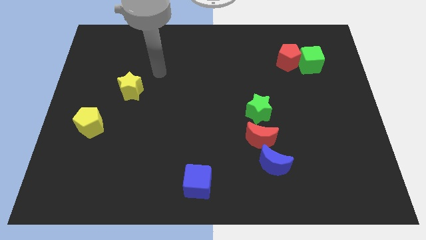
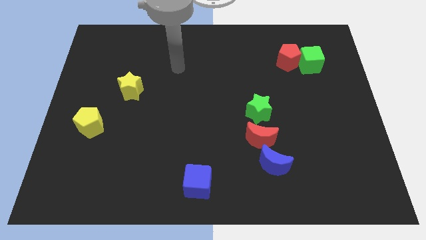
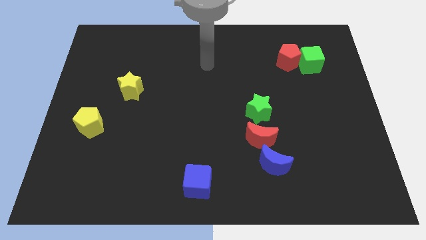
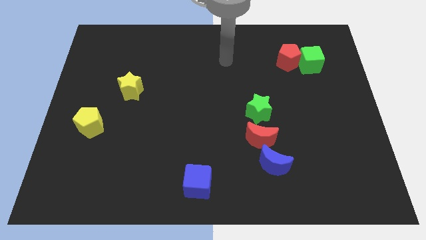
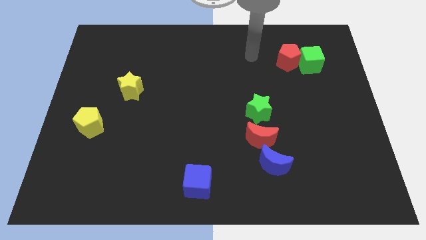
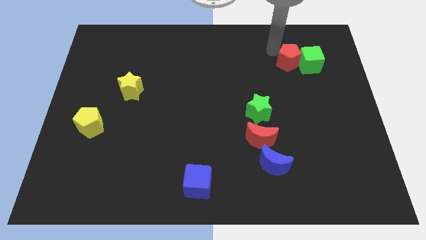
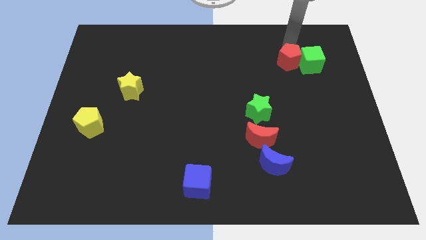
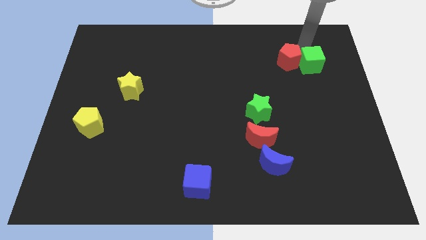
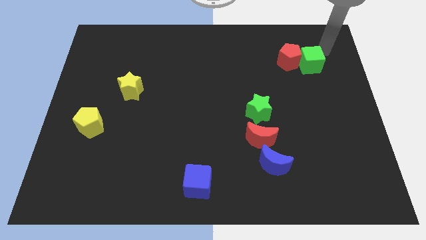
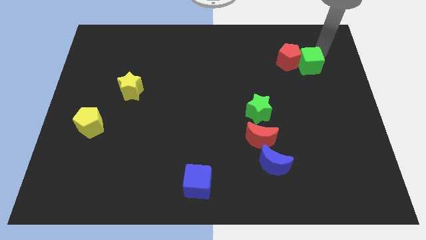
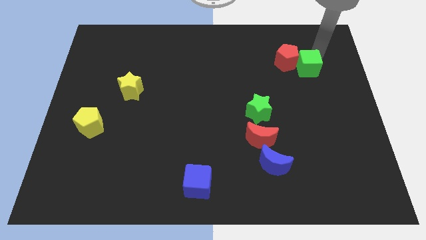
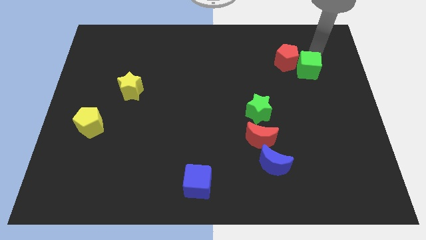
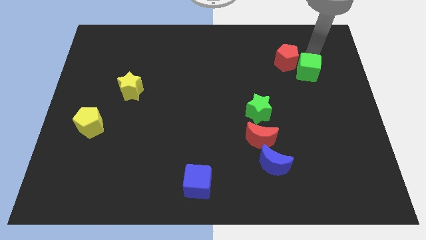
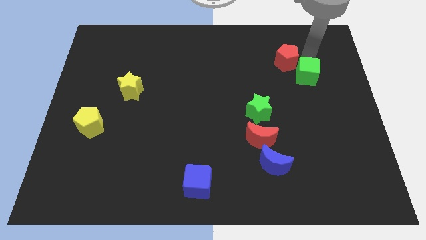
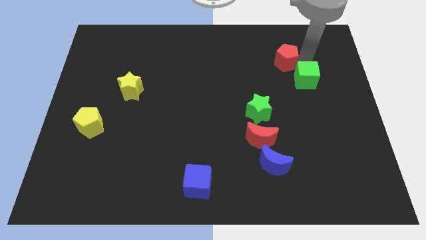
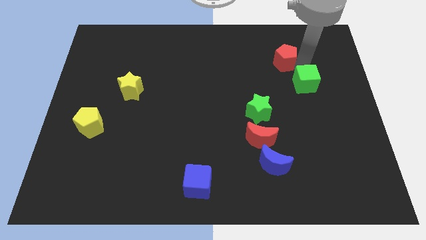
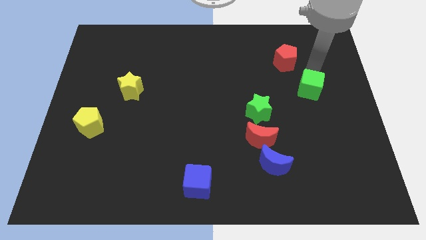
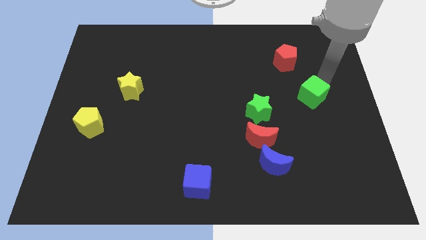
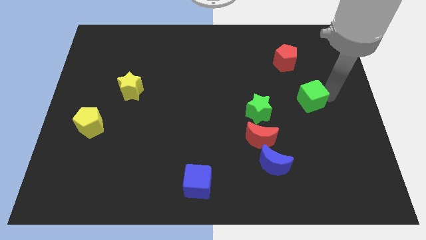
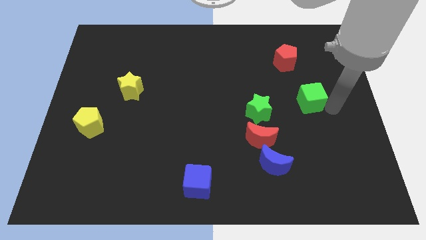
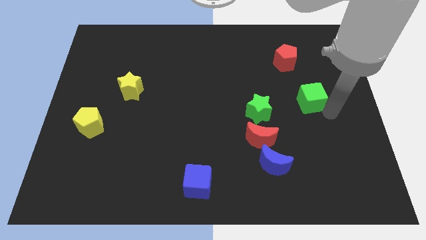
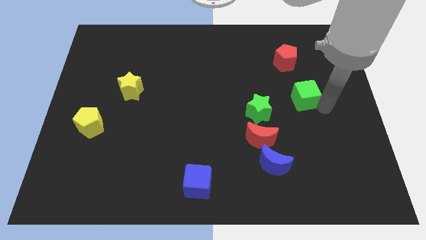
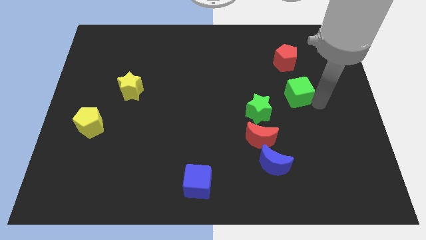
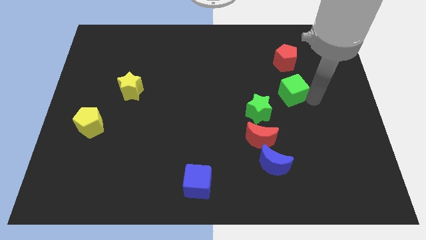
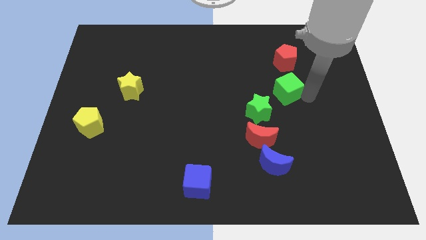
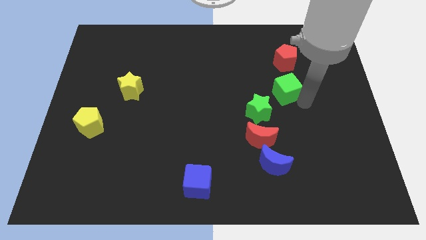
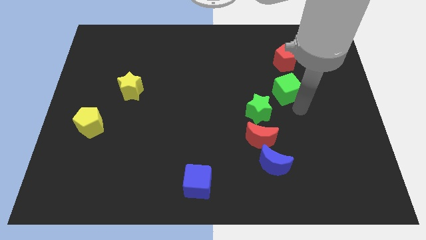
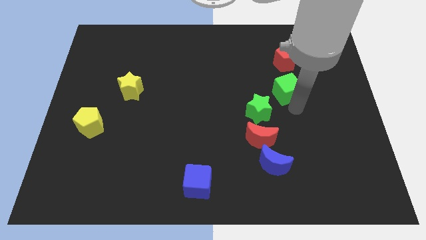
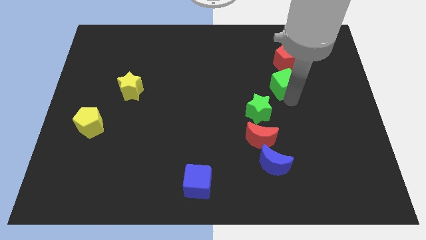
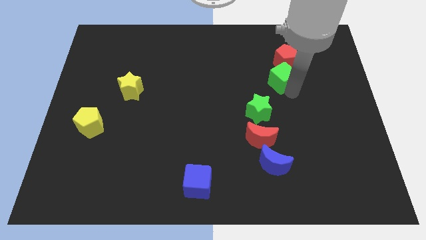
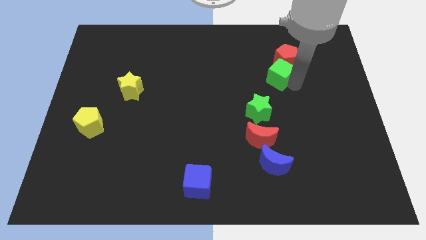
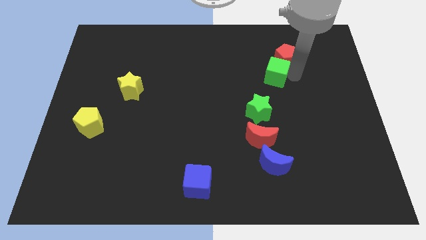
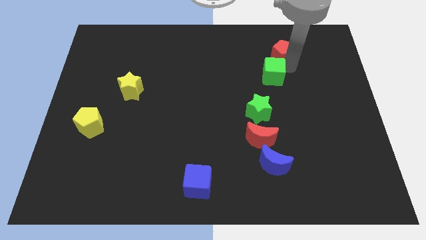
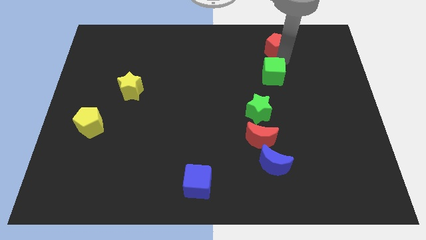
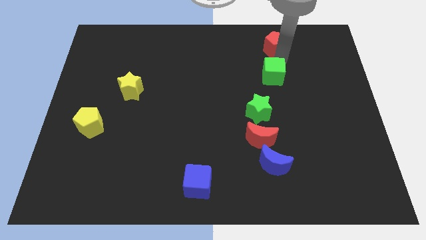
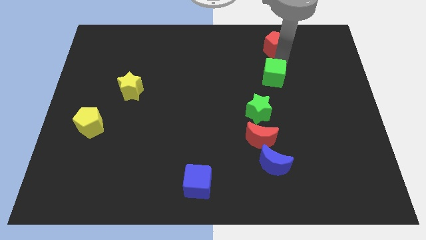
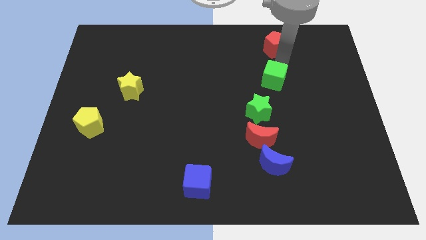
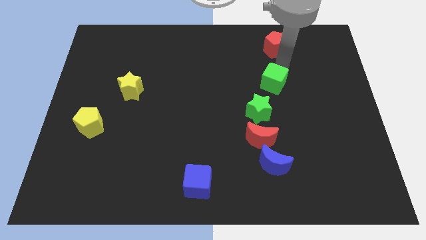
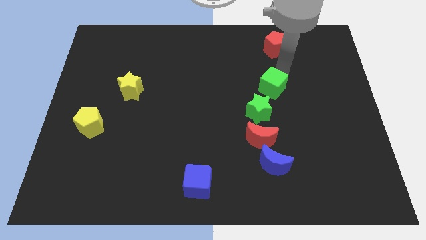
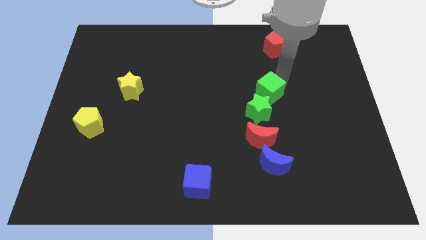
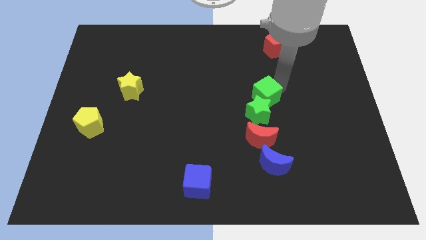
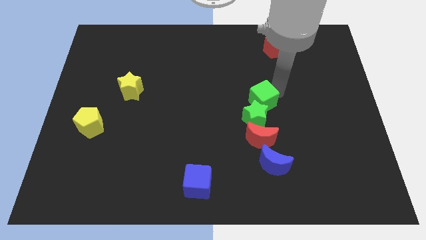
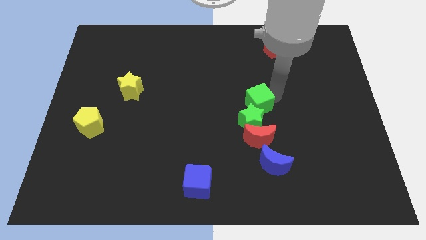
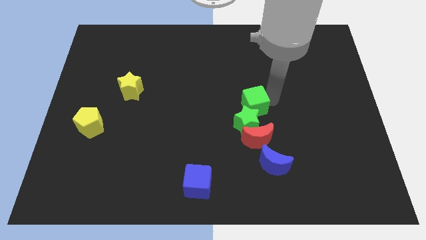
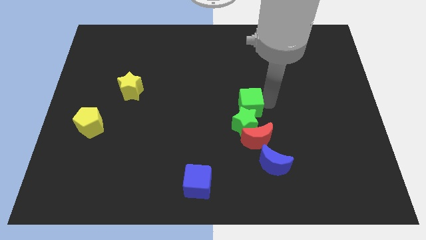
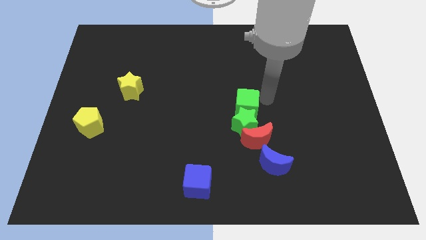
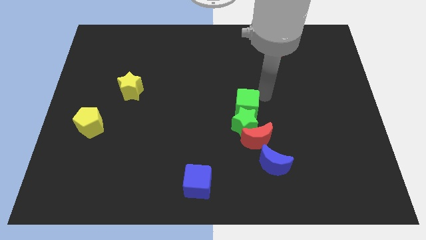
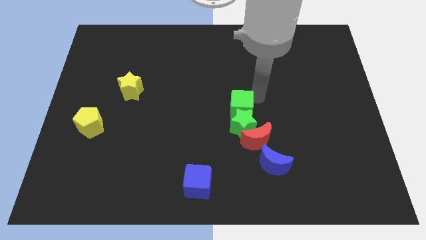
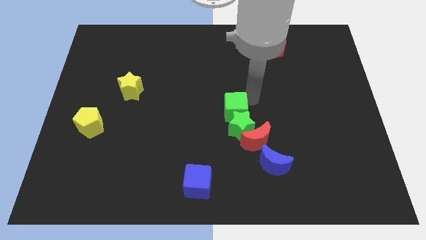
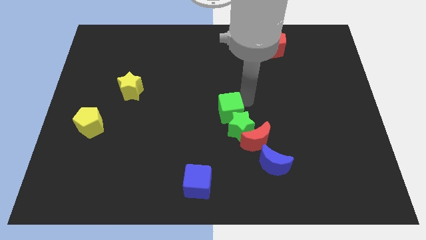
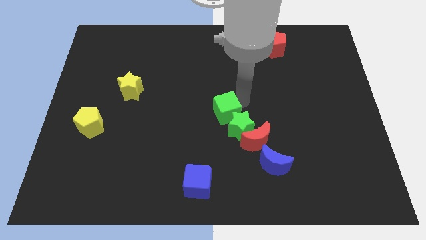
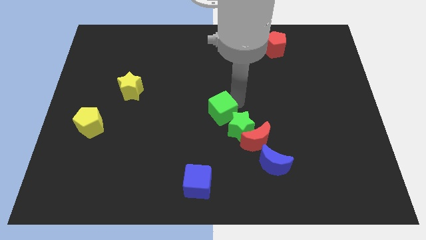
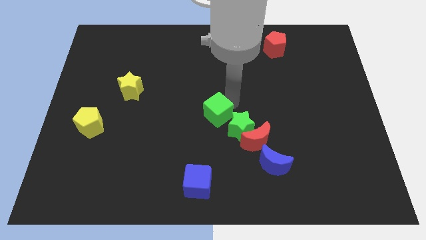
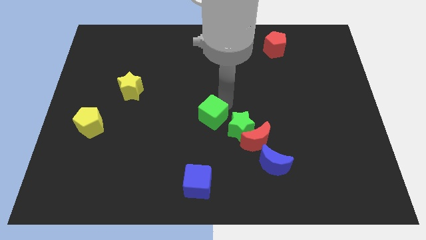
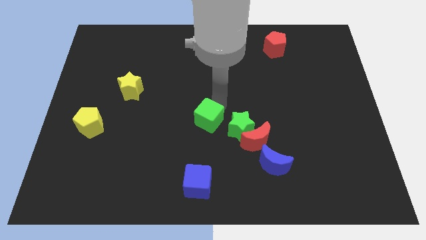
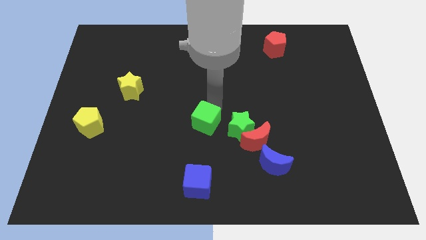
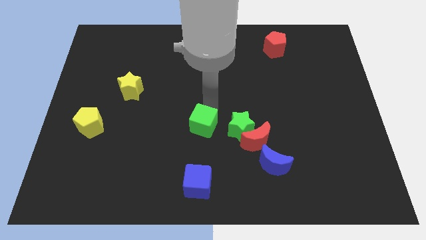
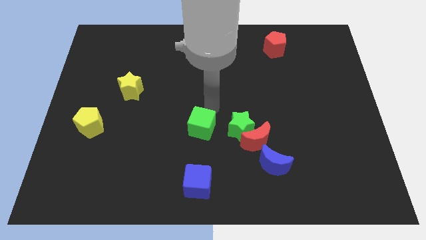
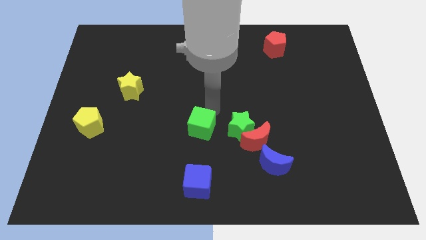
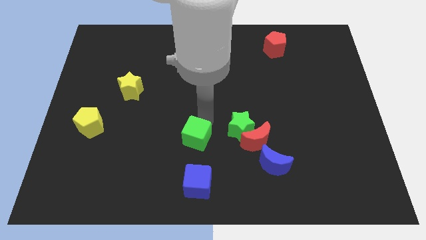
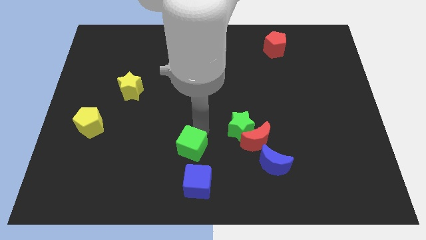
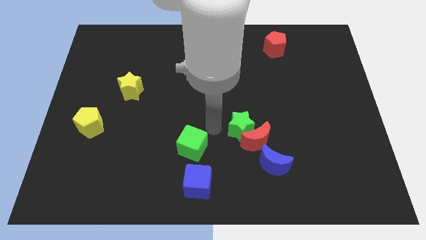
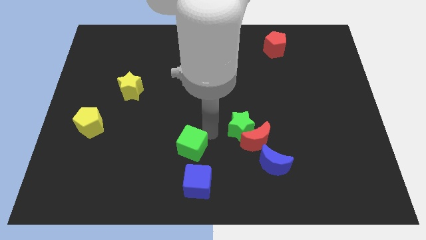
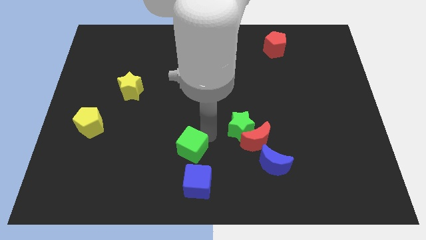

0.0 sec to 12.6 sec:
move the green cube to the top left of the blue cube

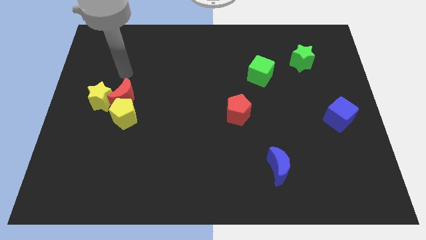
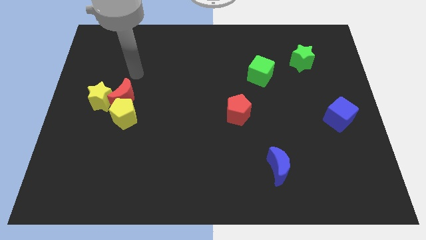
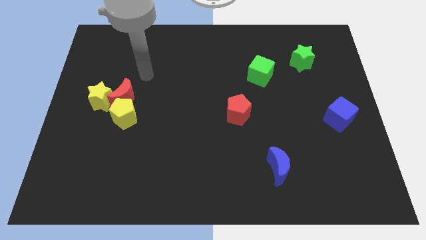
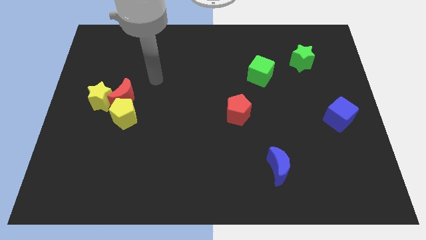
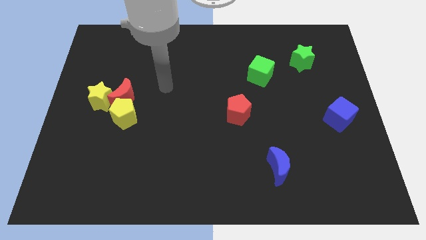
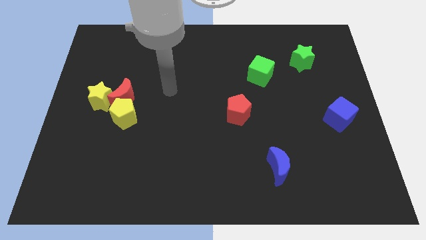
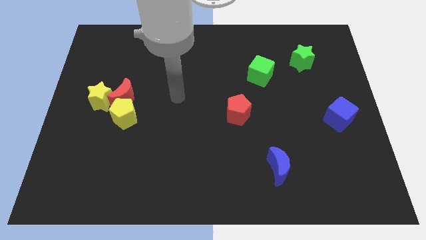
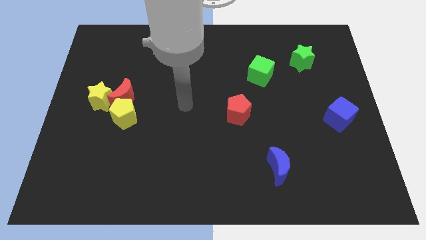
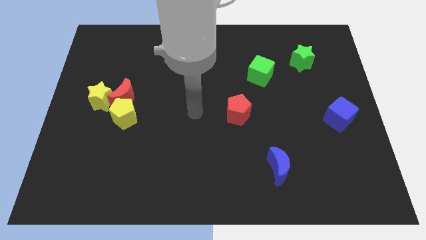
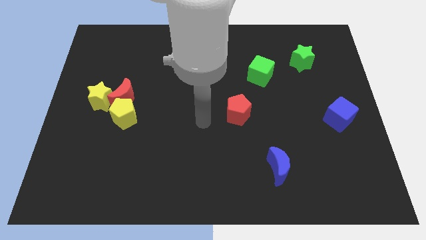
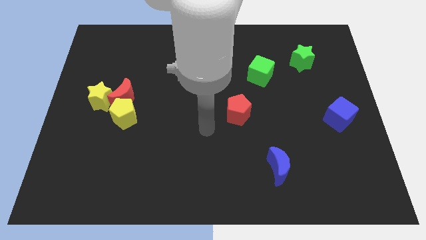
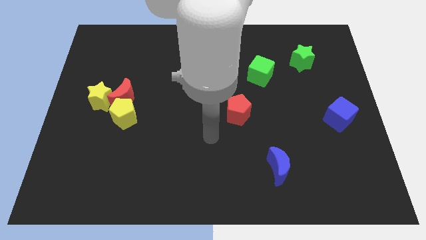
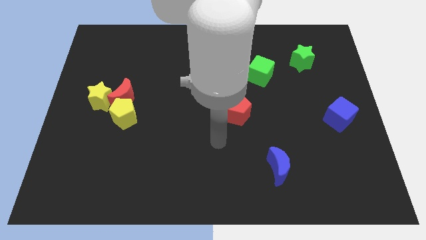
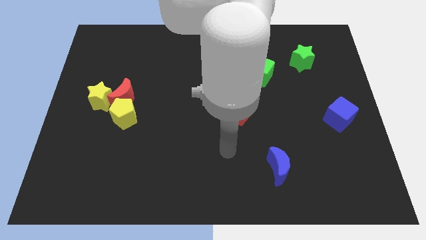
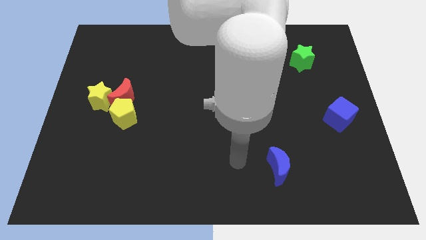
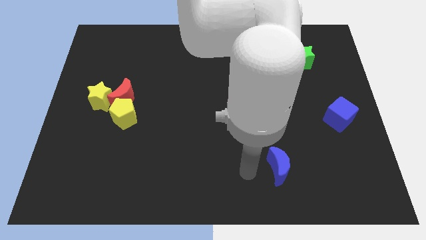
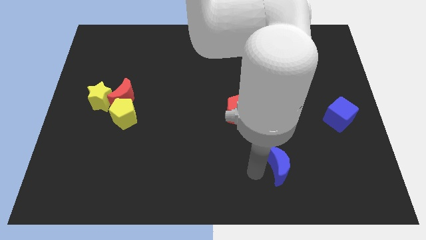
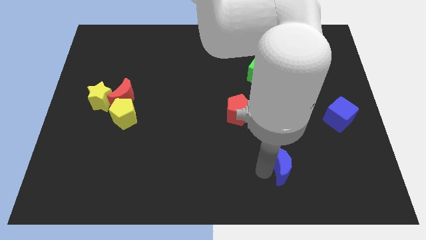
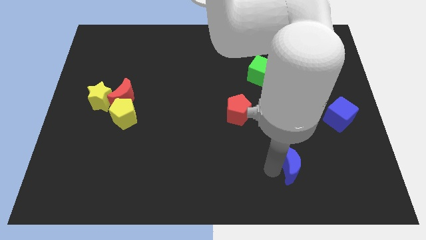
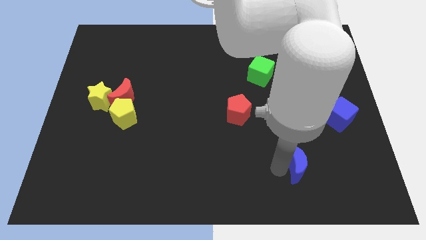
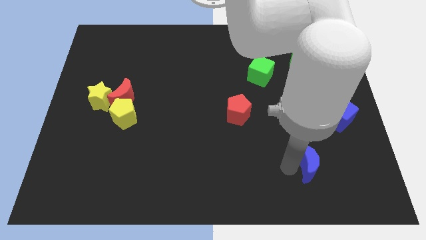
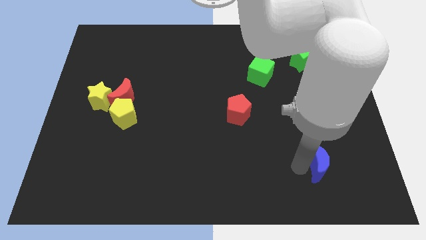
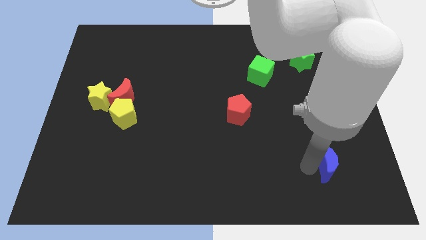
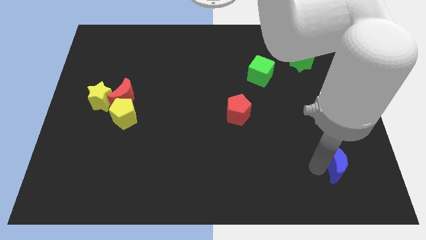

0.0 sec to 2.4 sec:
slide the blue moon to the bottom side of the blue cube
